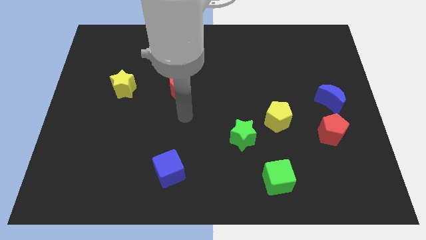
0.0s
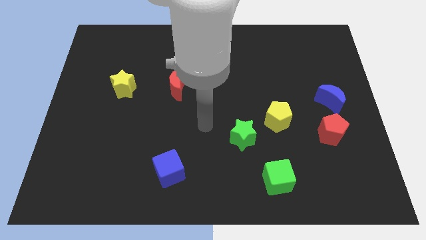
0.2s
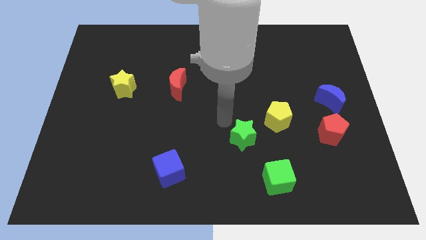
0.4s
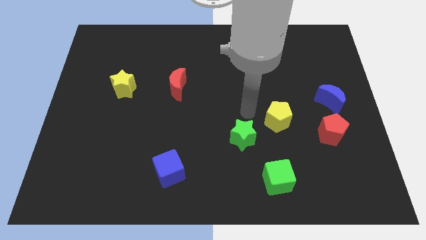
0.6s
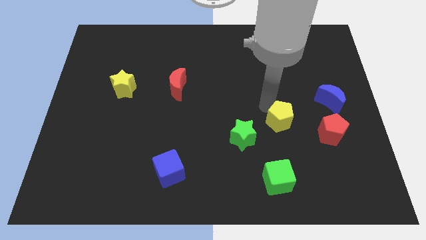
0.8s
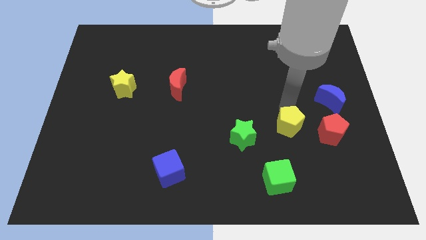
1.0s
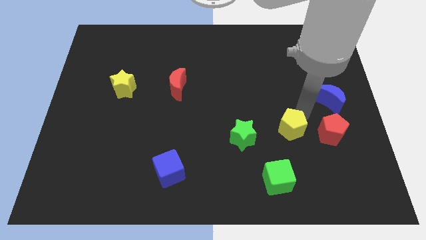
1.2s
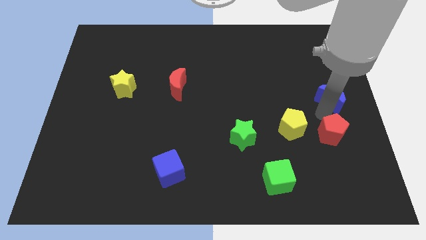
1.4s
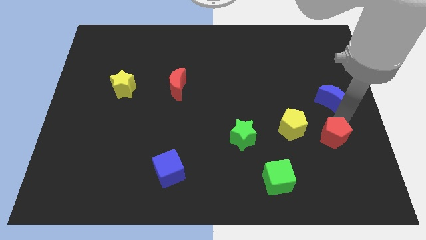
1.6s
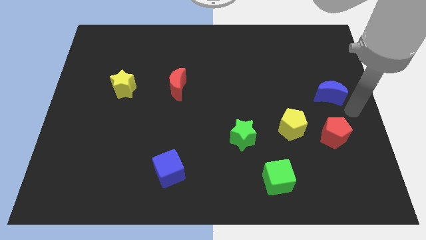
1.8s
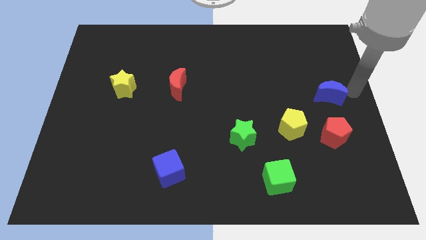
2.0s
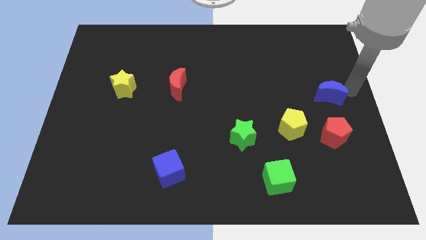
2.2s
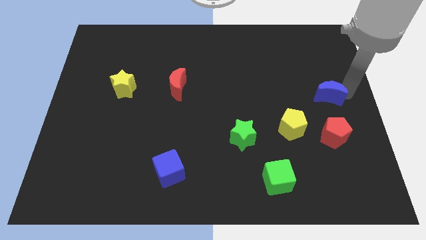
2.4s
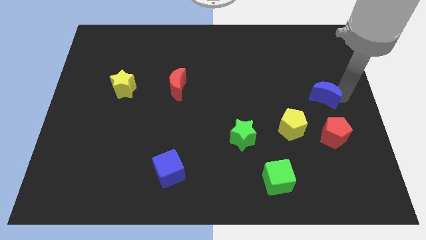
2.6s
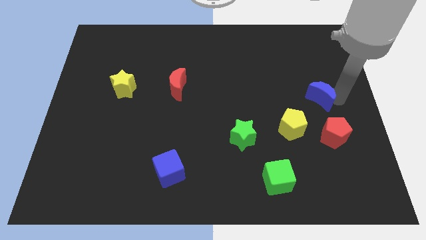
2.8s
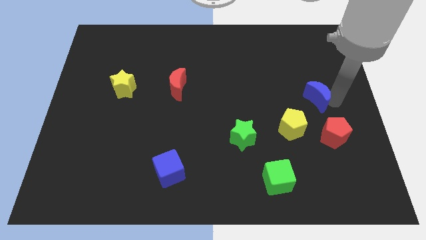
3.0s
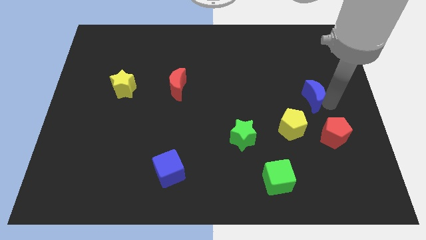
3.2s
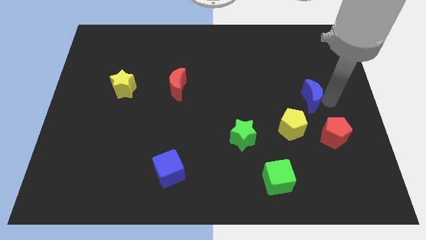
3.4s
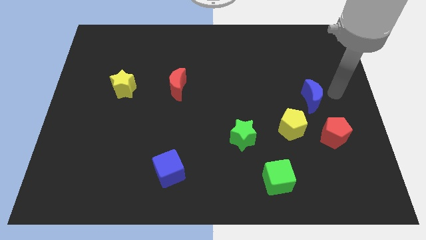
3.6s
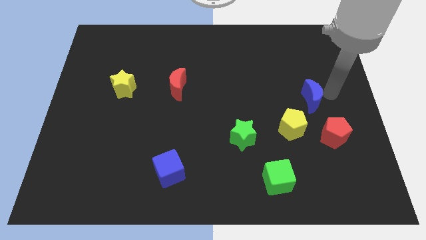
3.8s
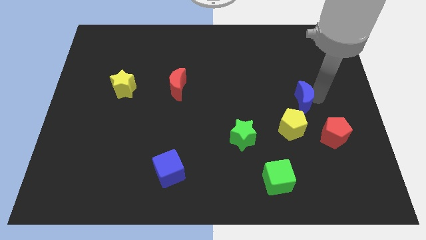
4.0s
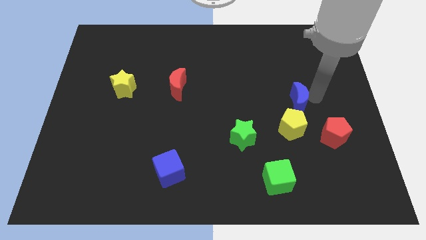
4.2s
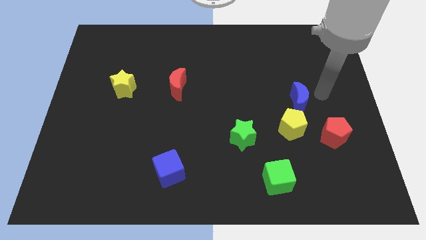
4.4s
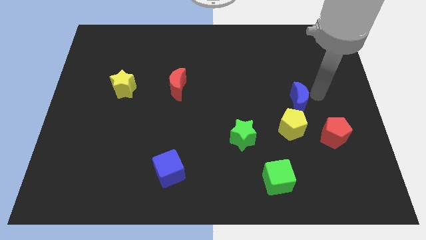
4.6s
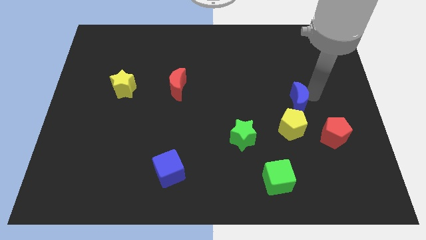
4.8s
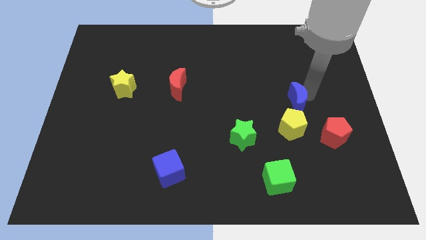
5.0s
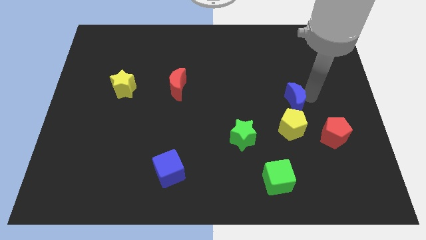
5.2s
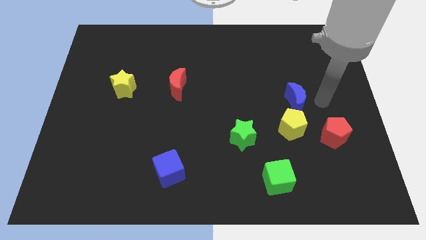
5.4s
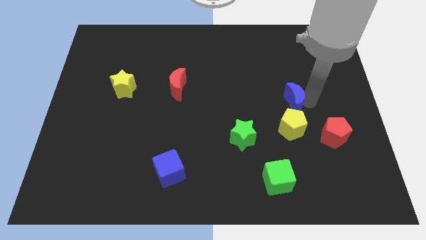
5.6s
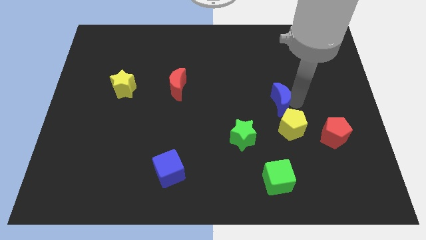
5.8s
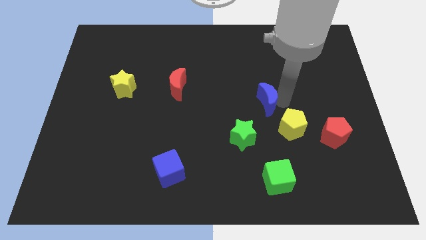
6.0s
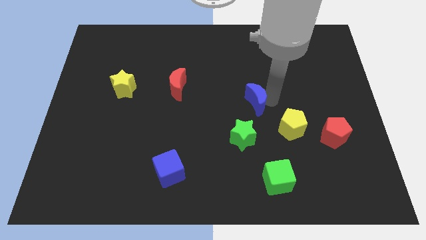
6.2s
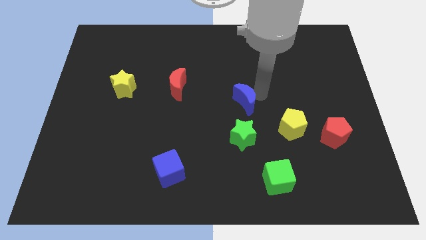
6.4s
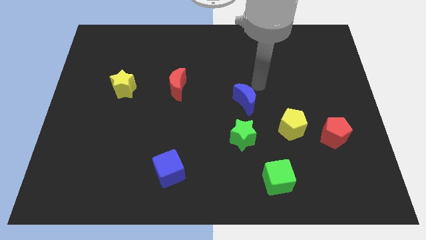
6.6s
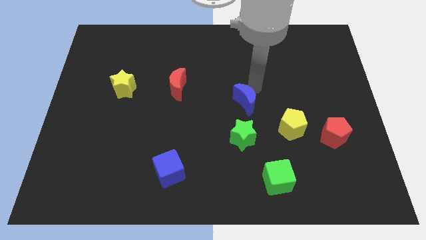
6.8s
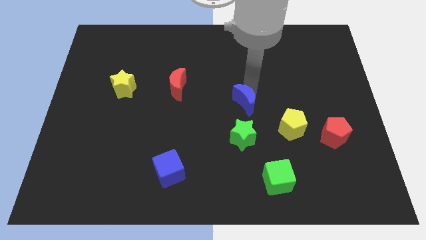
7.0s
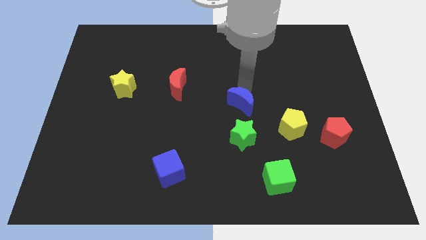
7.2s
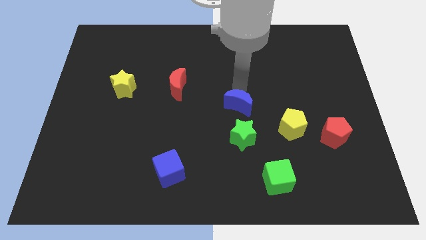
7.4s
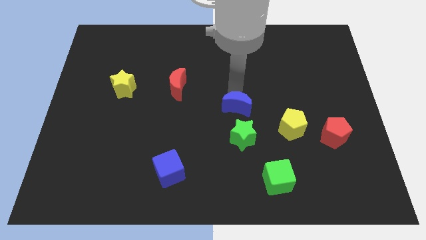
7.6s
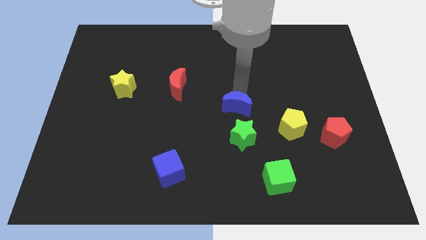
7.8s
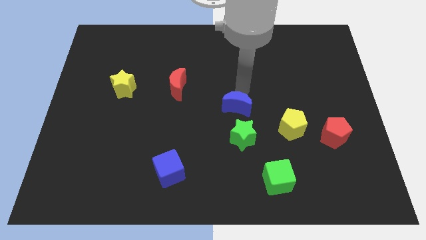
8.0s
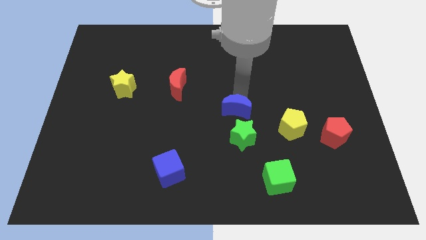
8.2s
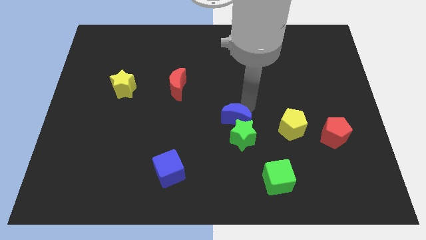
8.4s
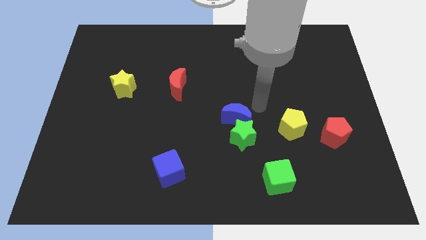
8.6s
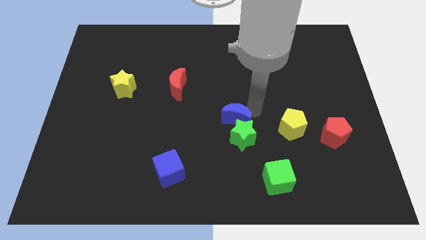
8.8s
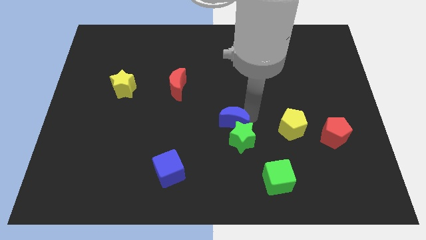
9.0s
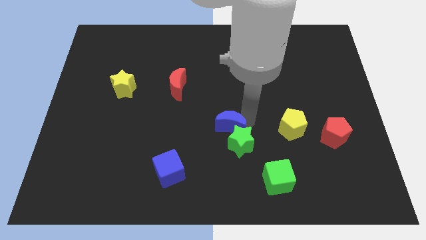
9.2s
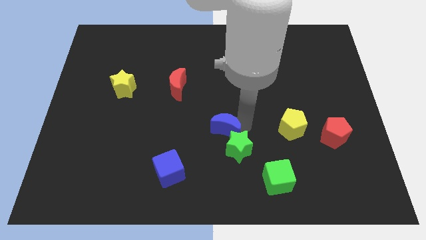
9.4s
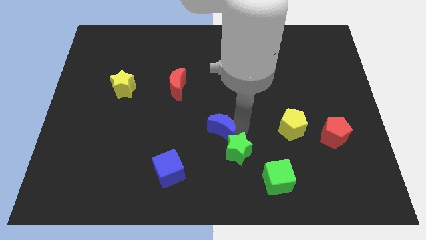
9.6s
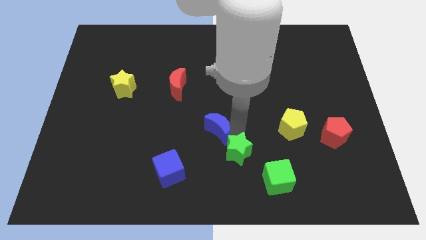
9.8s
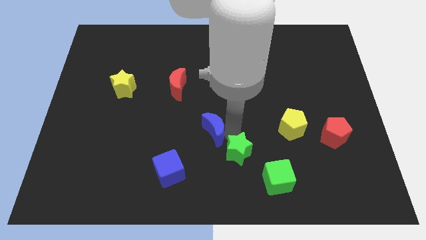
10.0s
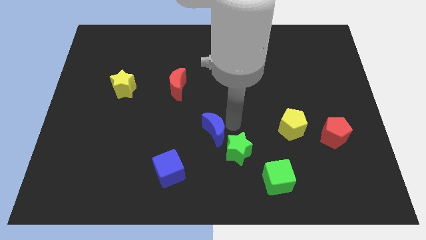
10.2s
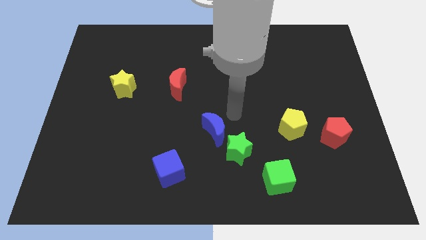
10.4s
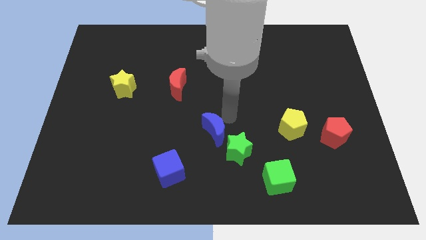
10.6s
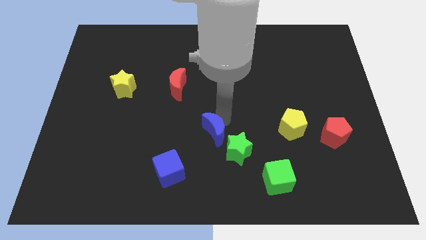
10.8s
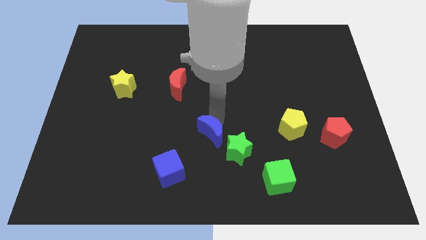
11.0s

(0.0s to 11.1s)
put the blue moon to the top right of the blue cube

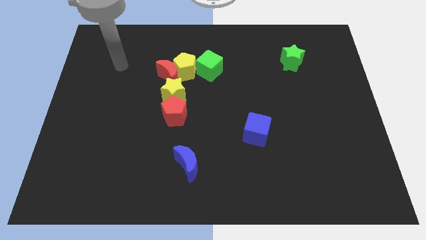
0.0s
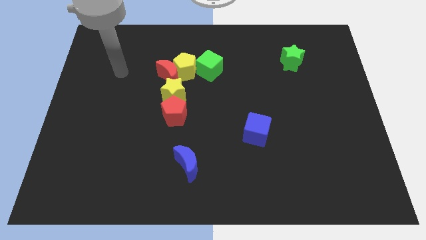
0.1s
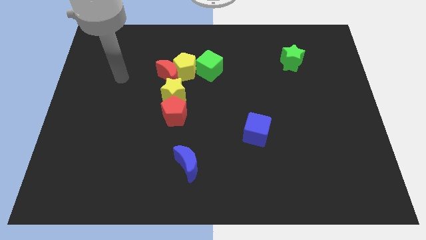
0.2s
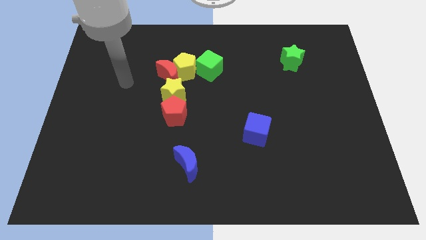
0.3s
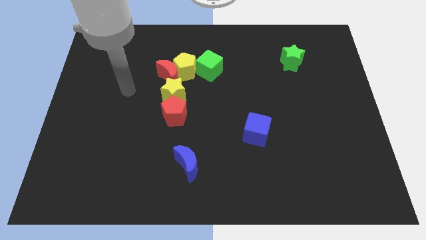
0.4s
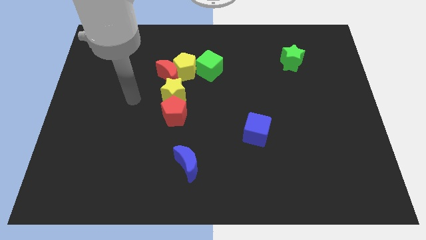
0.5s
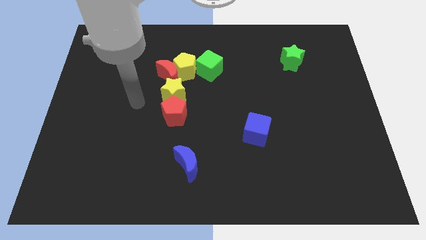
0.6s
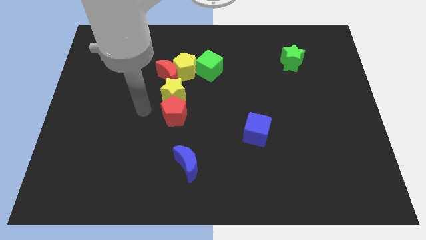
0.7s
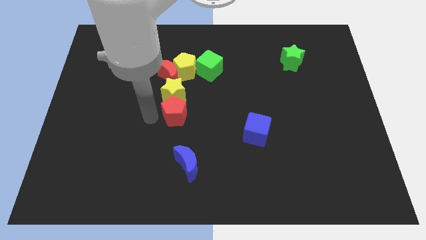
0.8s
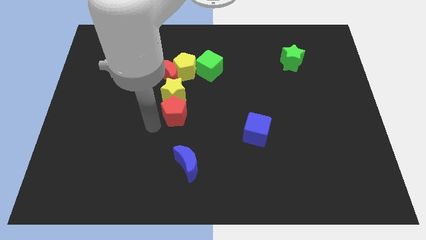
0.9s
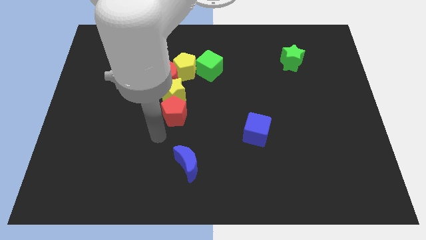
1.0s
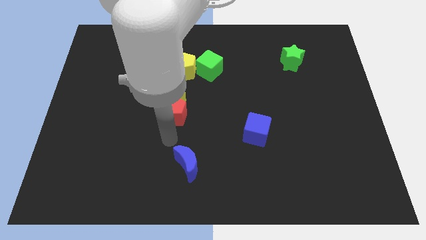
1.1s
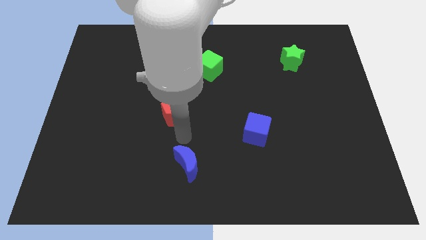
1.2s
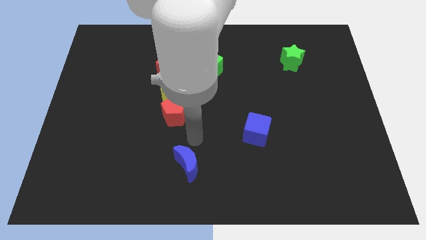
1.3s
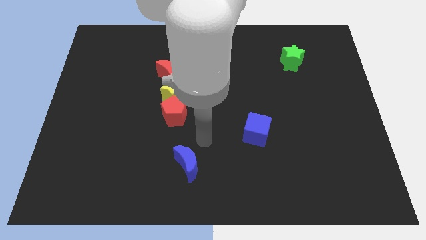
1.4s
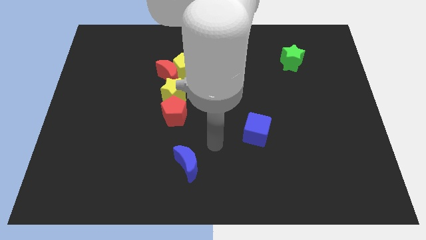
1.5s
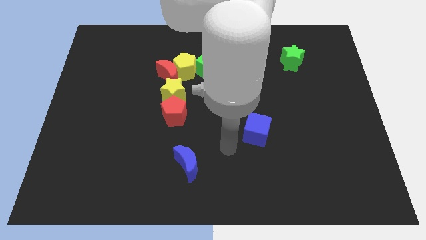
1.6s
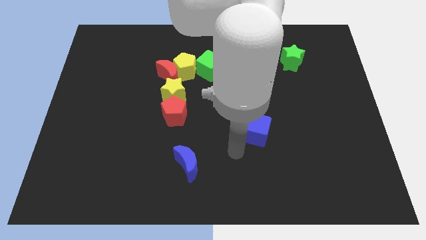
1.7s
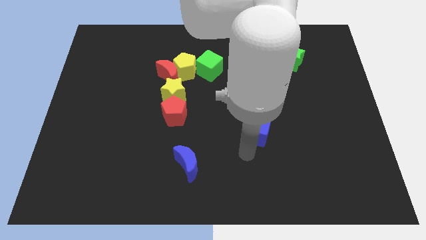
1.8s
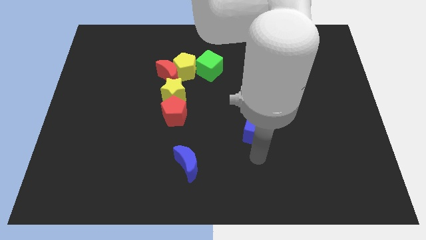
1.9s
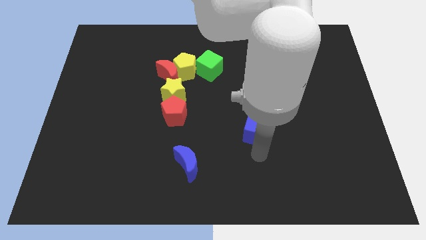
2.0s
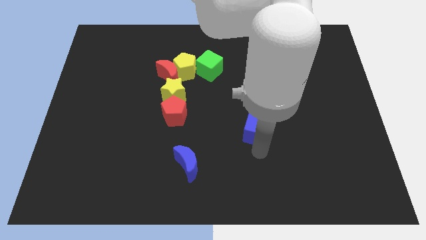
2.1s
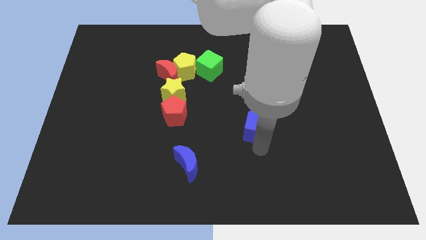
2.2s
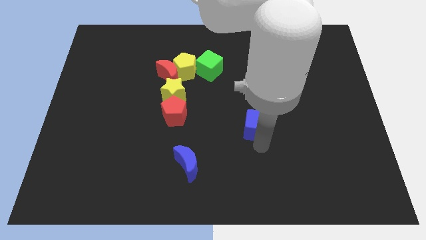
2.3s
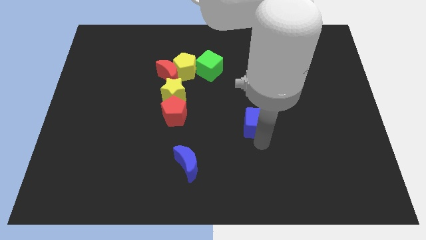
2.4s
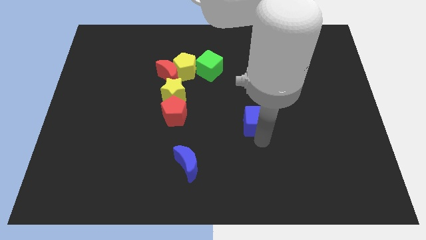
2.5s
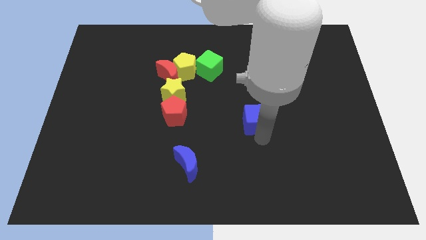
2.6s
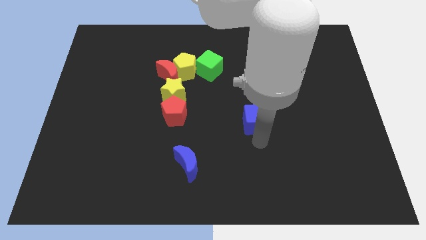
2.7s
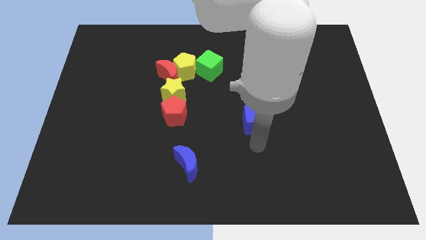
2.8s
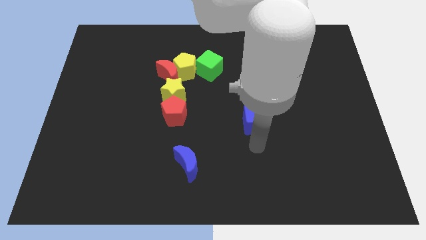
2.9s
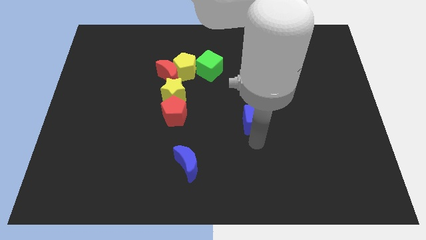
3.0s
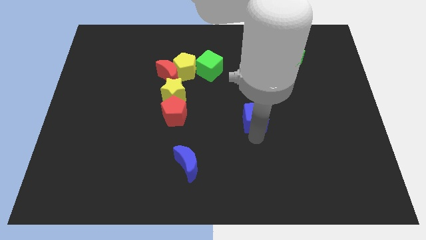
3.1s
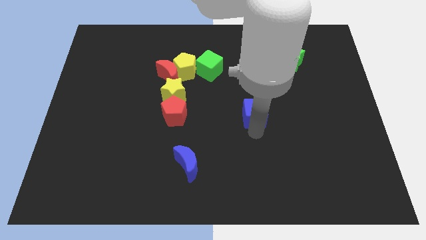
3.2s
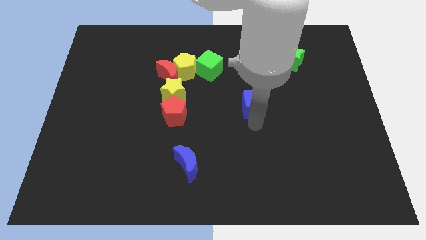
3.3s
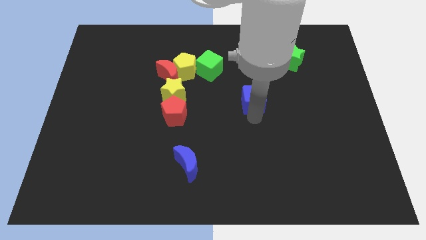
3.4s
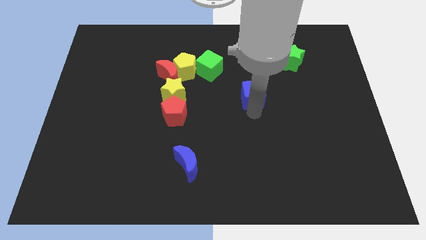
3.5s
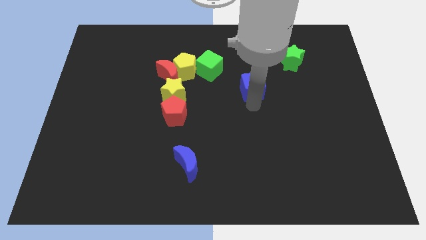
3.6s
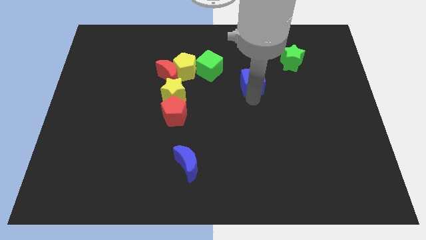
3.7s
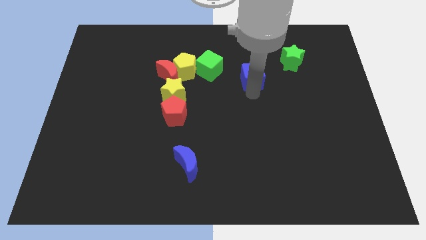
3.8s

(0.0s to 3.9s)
put the blue cube just right of the green cube
